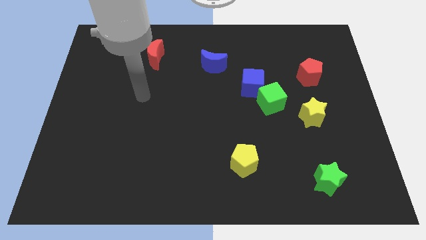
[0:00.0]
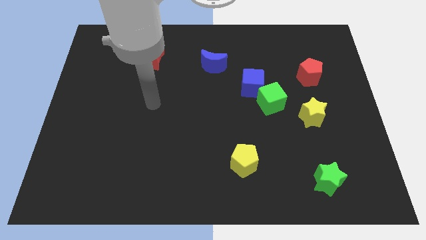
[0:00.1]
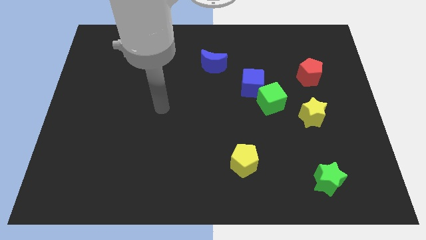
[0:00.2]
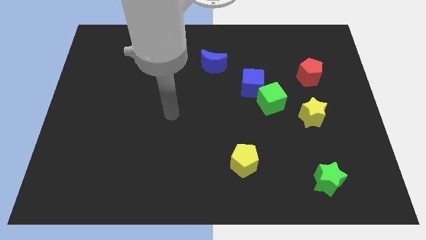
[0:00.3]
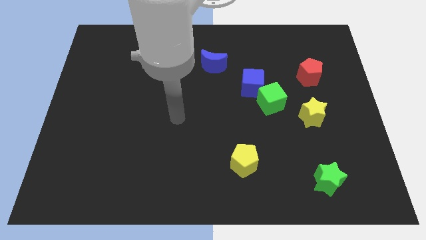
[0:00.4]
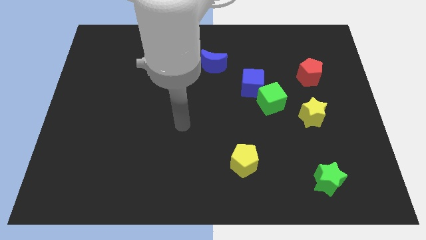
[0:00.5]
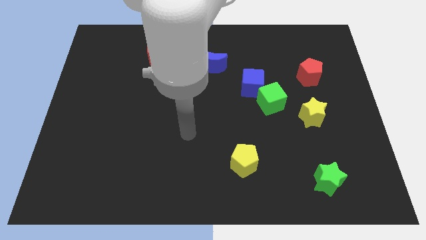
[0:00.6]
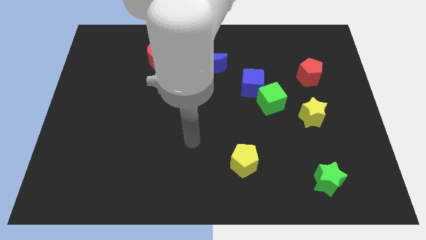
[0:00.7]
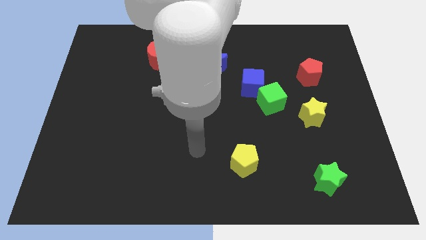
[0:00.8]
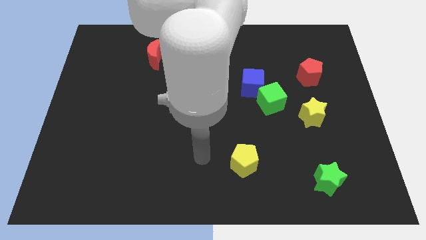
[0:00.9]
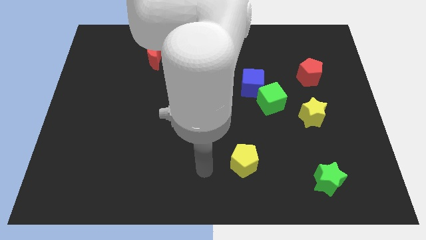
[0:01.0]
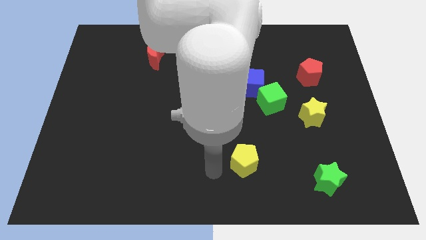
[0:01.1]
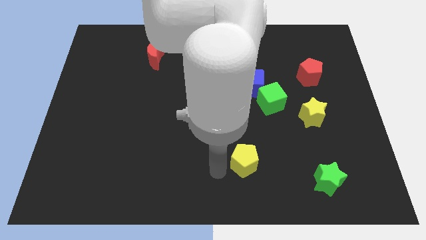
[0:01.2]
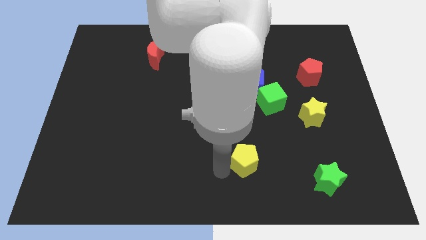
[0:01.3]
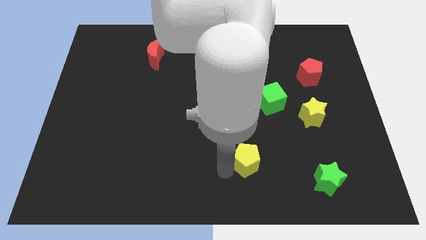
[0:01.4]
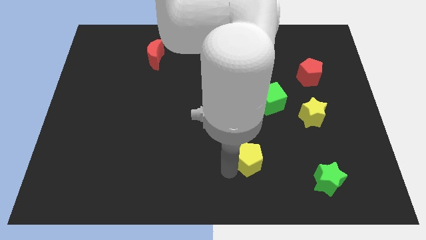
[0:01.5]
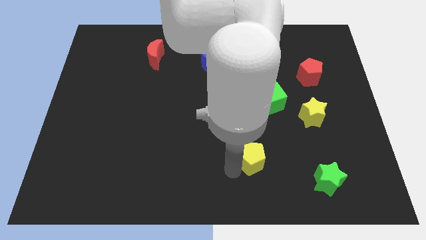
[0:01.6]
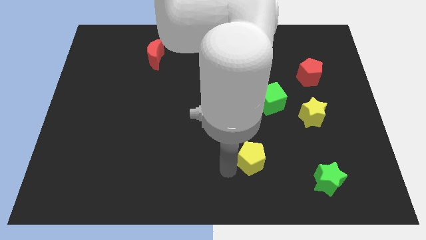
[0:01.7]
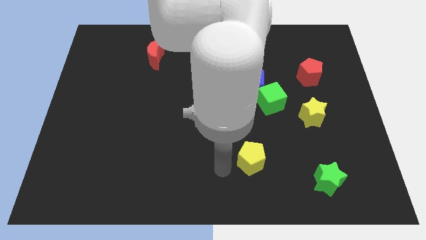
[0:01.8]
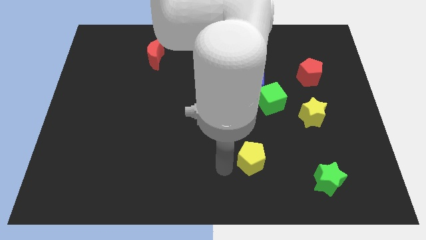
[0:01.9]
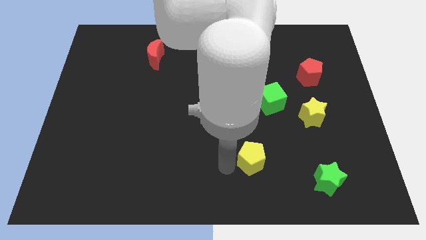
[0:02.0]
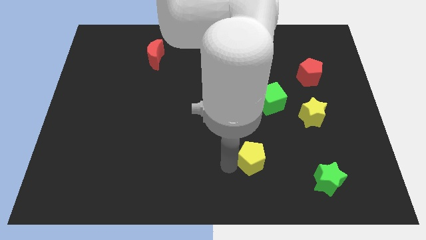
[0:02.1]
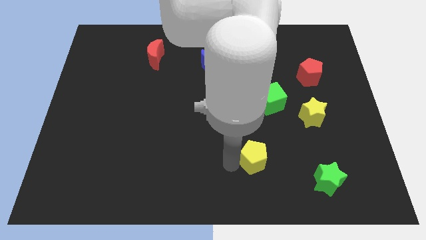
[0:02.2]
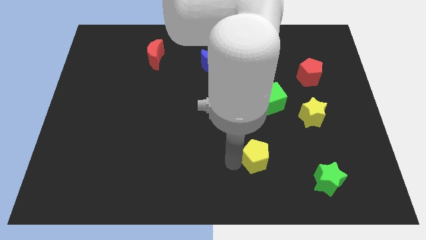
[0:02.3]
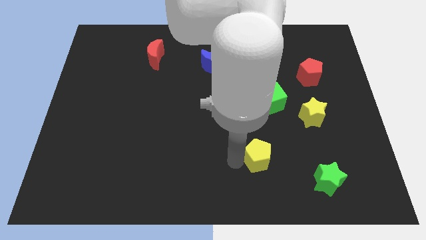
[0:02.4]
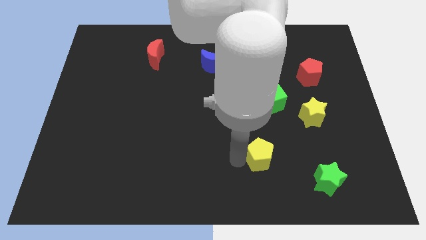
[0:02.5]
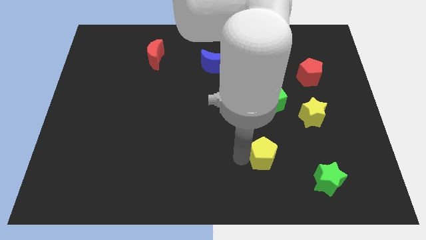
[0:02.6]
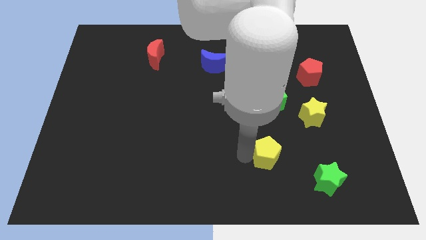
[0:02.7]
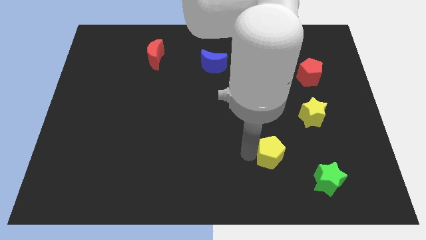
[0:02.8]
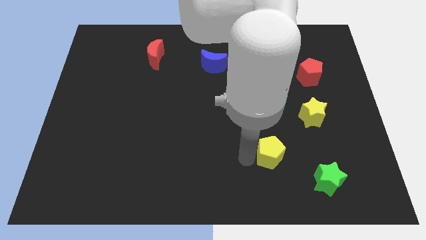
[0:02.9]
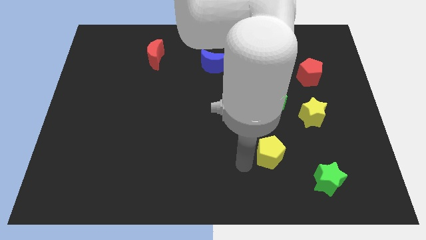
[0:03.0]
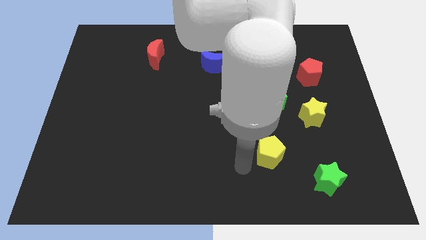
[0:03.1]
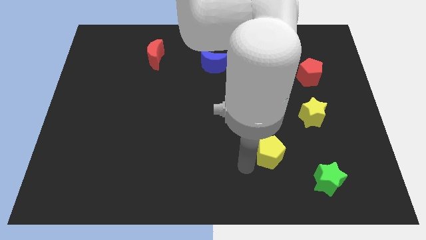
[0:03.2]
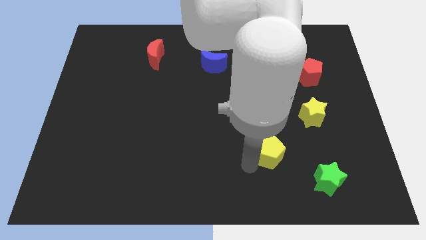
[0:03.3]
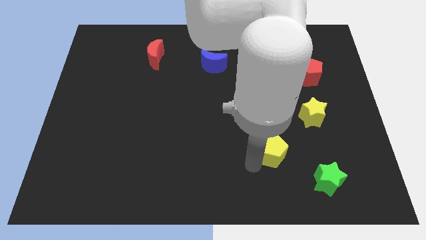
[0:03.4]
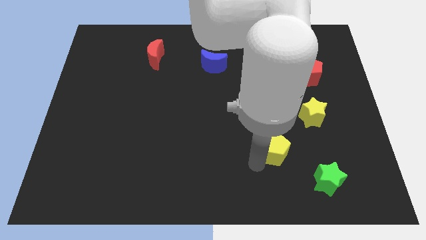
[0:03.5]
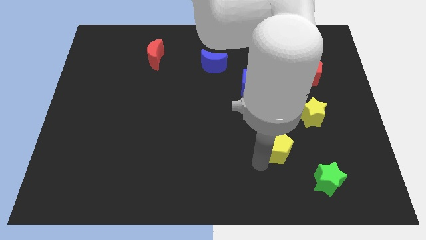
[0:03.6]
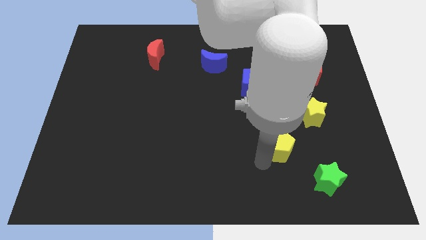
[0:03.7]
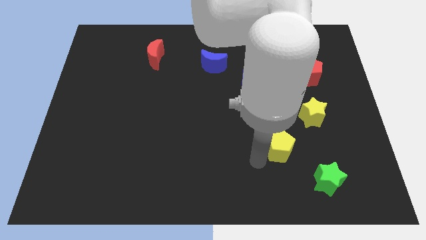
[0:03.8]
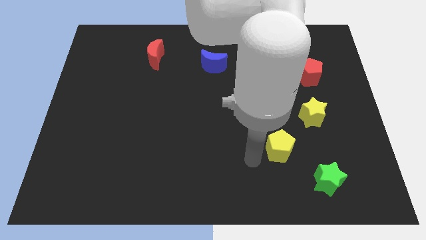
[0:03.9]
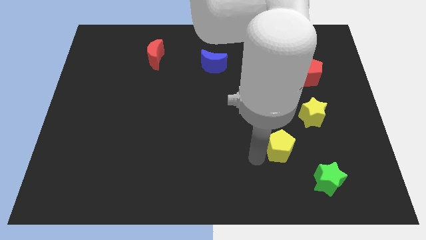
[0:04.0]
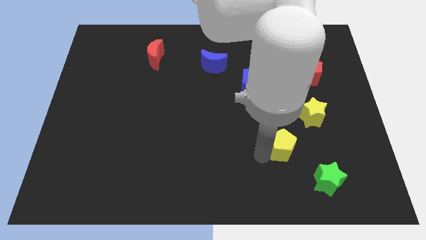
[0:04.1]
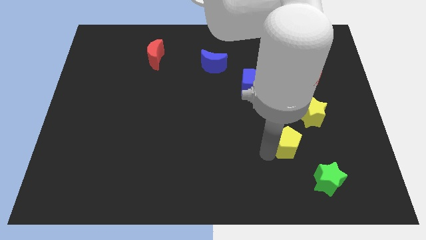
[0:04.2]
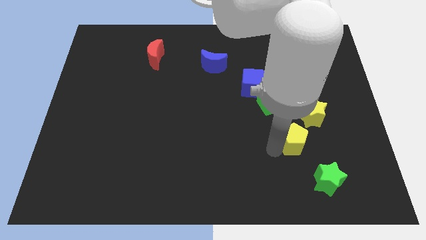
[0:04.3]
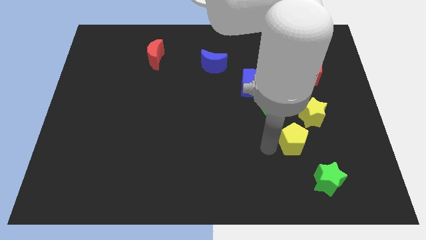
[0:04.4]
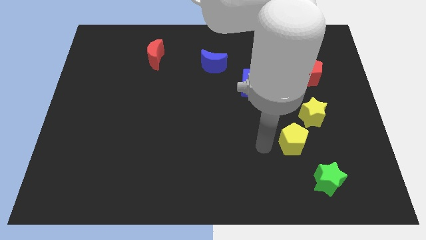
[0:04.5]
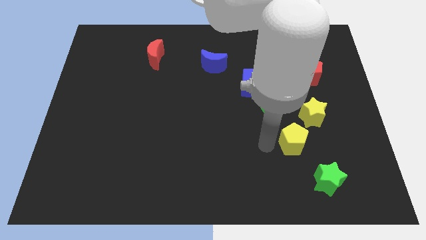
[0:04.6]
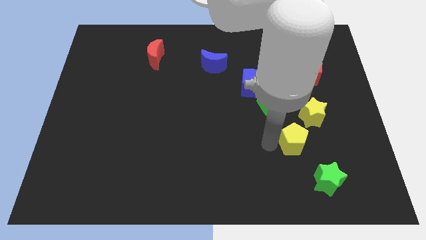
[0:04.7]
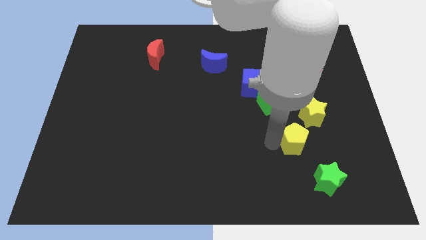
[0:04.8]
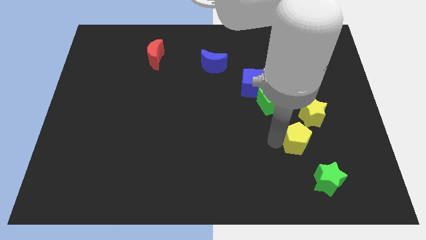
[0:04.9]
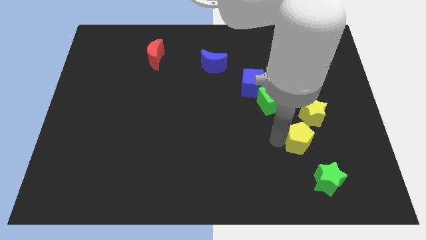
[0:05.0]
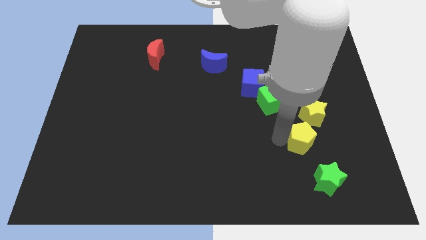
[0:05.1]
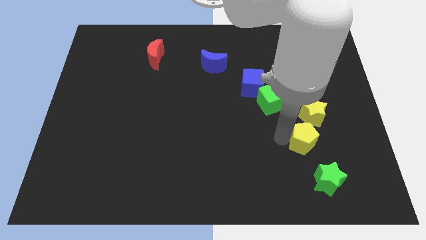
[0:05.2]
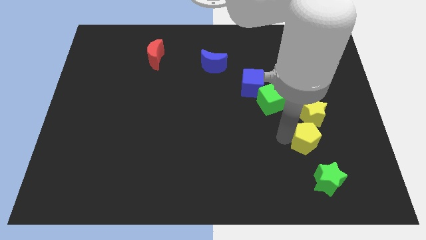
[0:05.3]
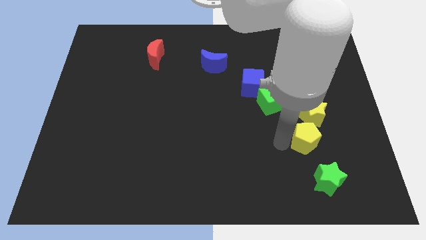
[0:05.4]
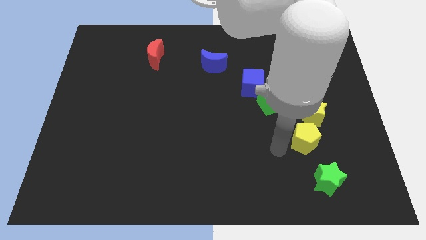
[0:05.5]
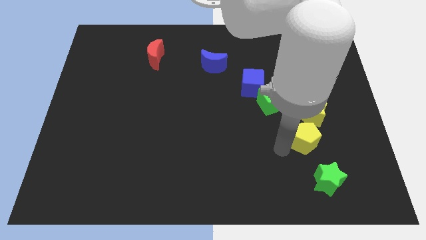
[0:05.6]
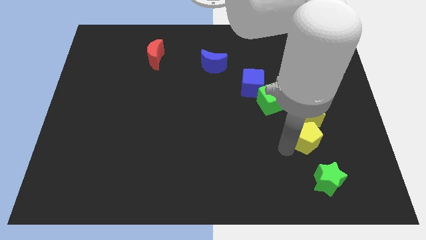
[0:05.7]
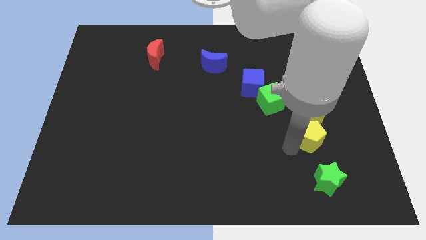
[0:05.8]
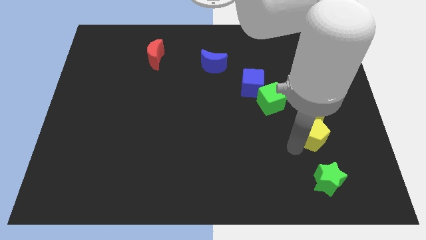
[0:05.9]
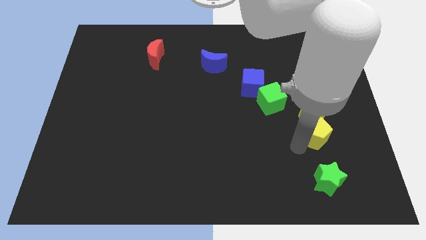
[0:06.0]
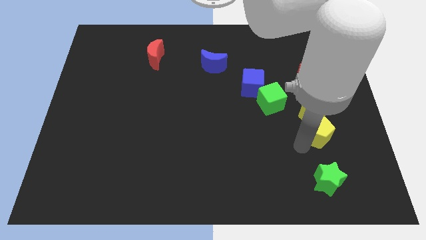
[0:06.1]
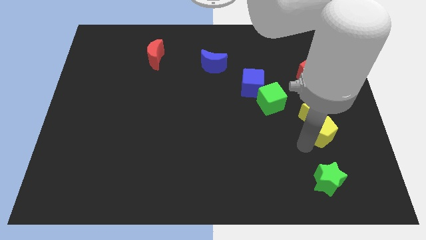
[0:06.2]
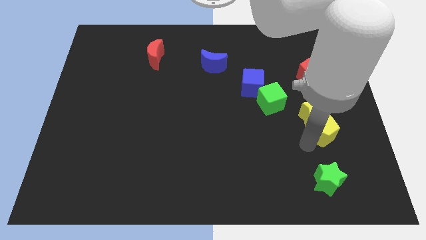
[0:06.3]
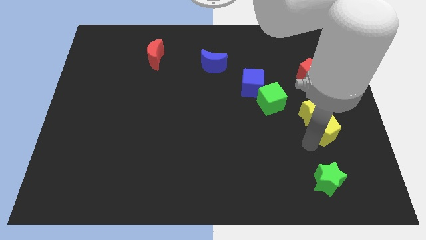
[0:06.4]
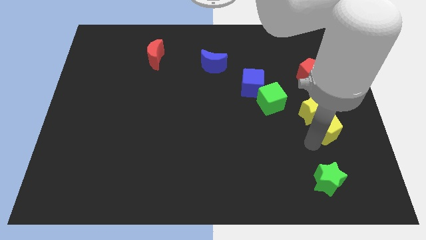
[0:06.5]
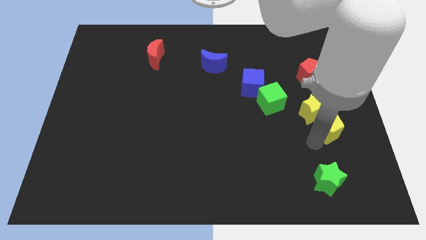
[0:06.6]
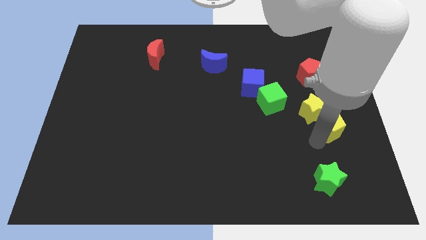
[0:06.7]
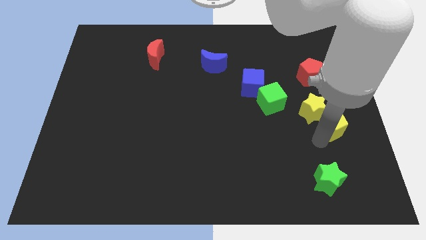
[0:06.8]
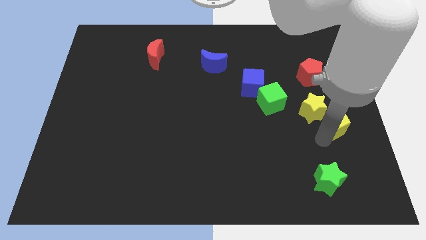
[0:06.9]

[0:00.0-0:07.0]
slide the yellow pentagon to the center right
